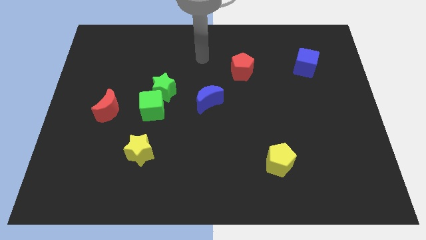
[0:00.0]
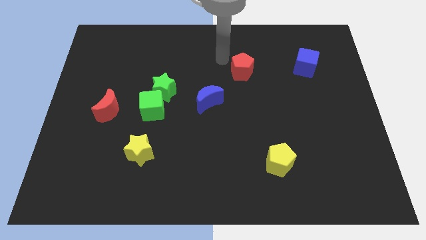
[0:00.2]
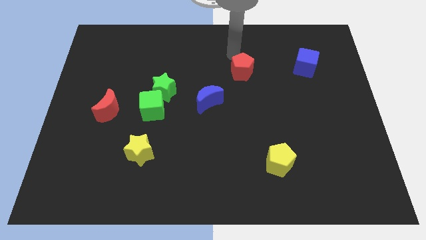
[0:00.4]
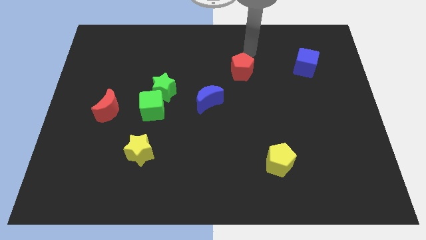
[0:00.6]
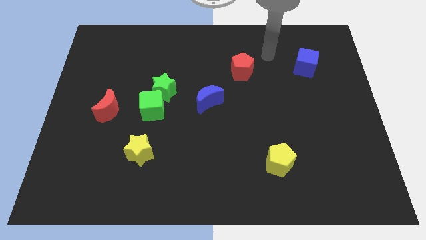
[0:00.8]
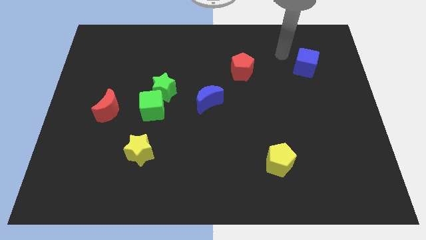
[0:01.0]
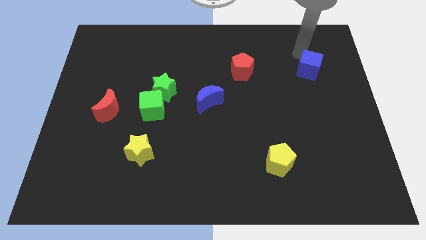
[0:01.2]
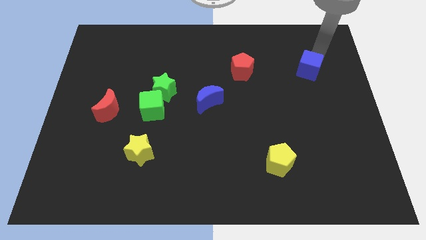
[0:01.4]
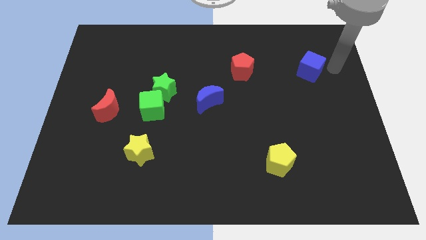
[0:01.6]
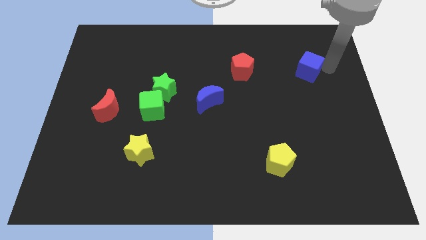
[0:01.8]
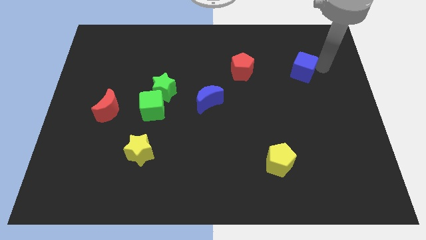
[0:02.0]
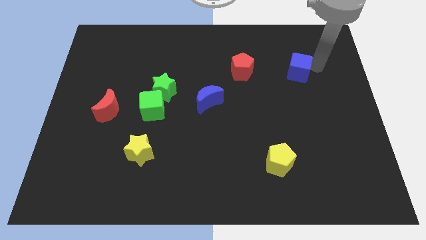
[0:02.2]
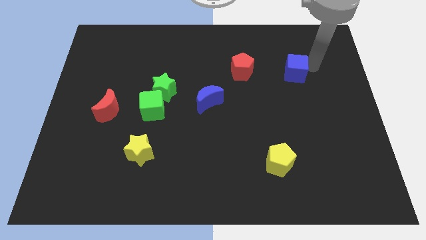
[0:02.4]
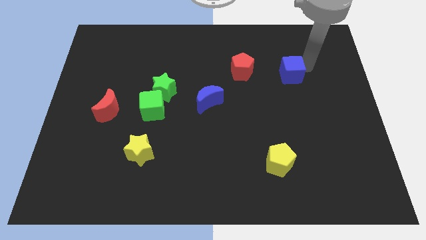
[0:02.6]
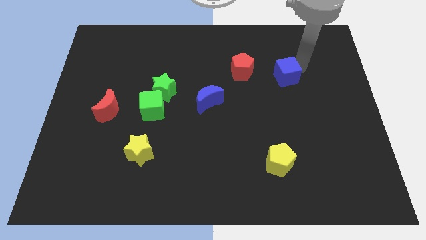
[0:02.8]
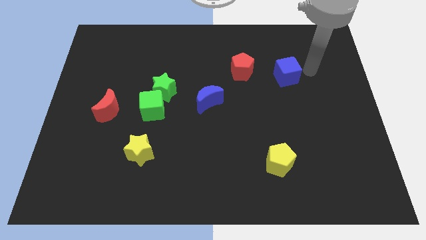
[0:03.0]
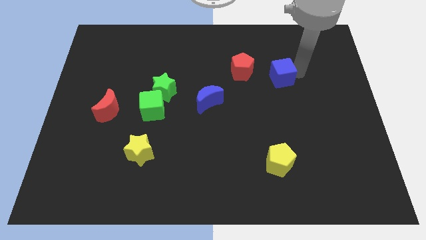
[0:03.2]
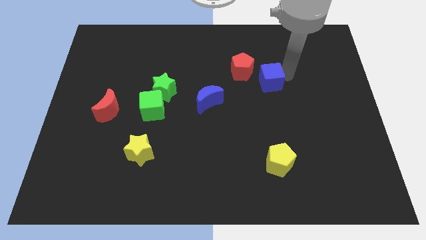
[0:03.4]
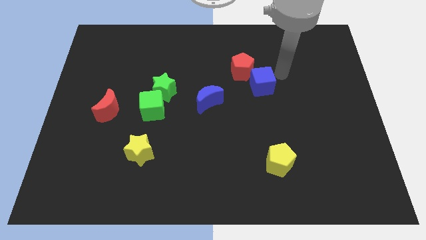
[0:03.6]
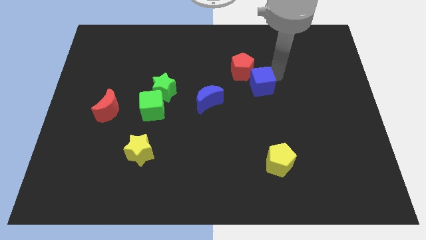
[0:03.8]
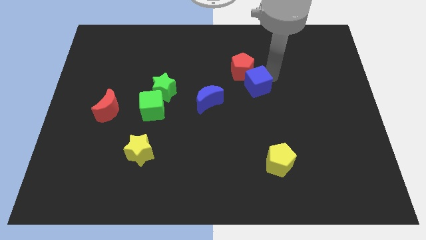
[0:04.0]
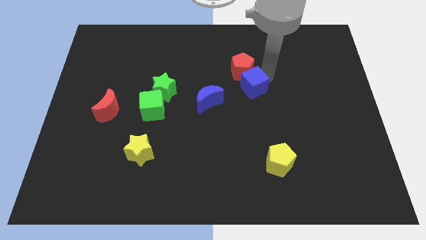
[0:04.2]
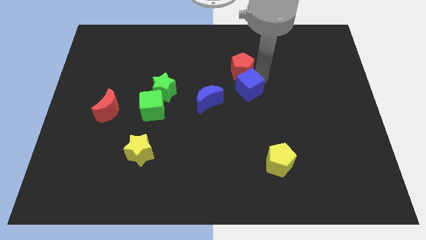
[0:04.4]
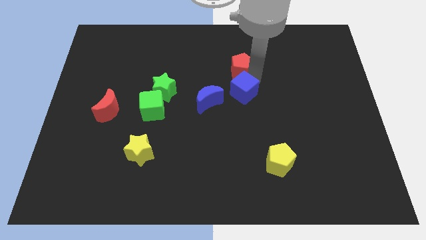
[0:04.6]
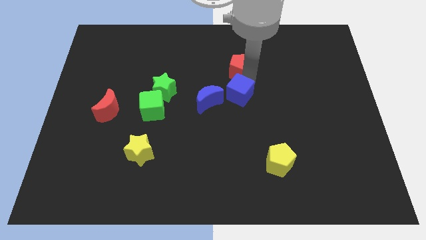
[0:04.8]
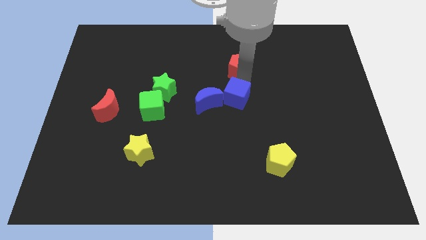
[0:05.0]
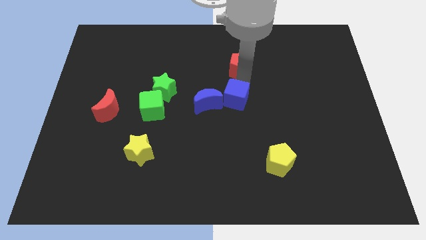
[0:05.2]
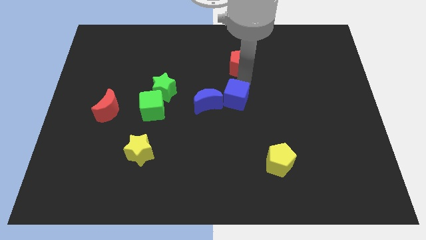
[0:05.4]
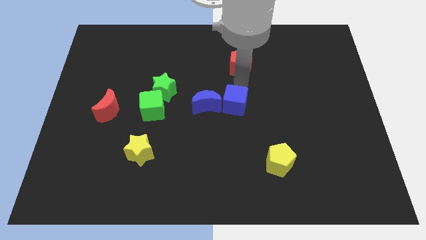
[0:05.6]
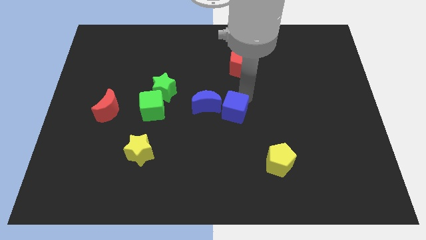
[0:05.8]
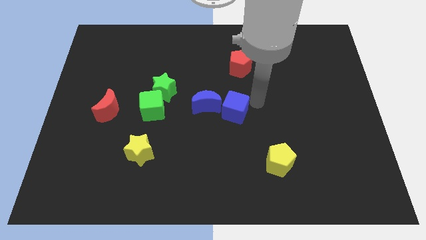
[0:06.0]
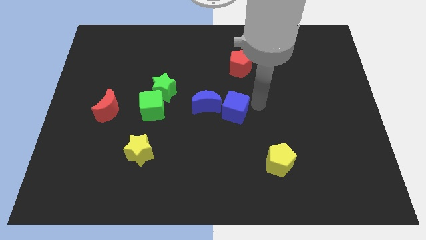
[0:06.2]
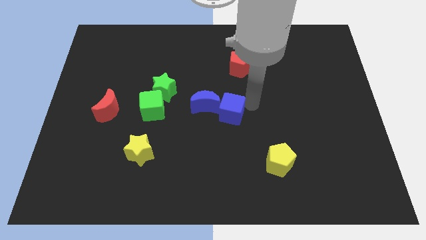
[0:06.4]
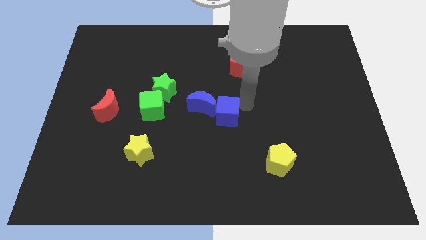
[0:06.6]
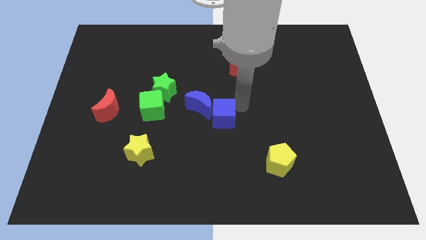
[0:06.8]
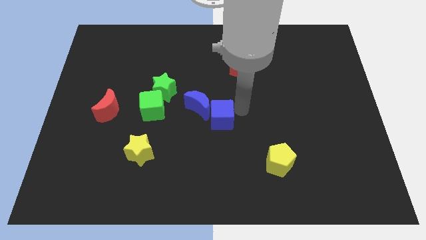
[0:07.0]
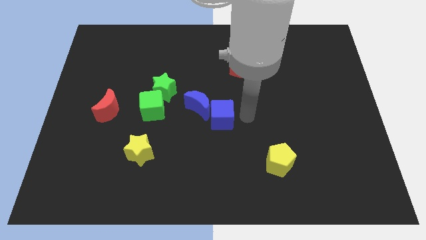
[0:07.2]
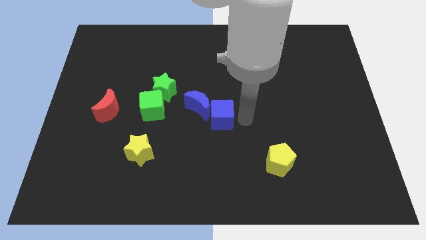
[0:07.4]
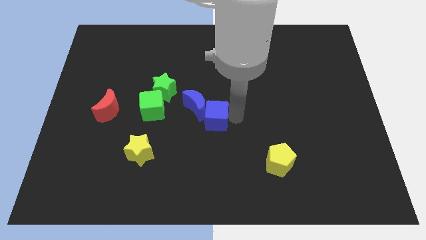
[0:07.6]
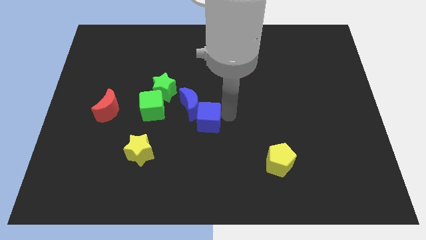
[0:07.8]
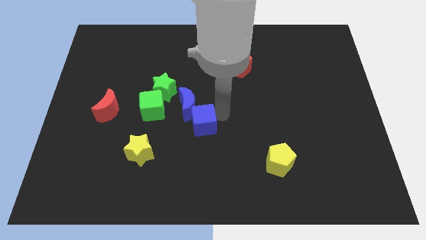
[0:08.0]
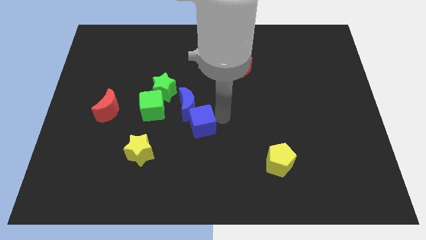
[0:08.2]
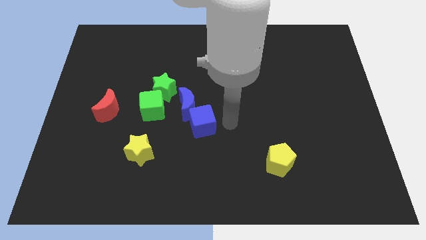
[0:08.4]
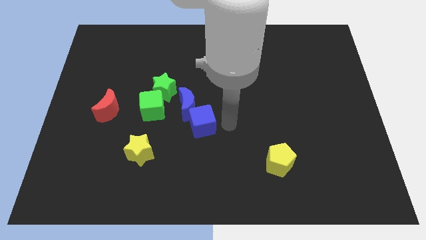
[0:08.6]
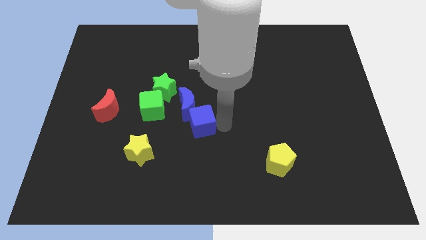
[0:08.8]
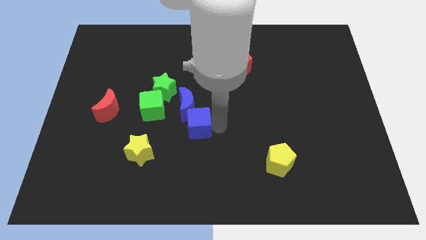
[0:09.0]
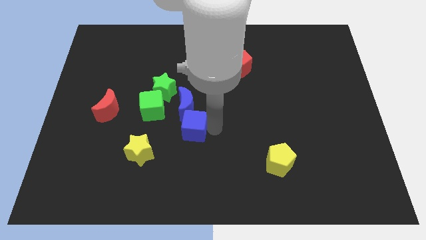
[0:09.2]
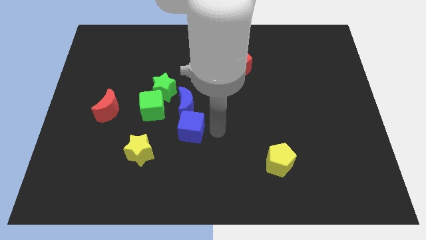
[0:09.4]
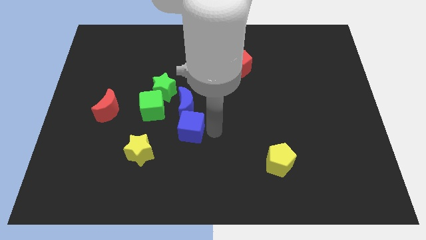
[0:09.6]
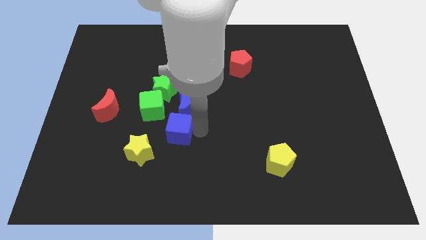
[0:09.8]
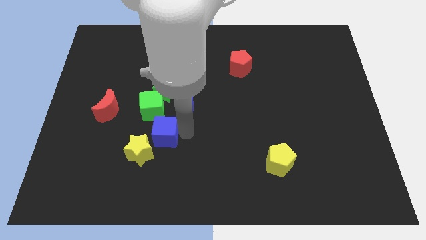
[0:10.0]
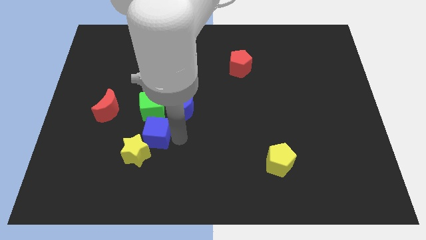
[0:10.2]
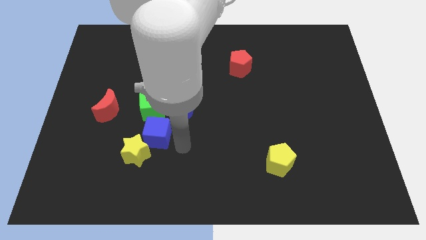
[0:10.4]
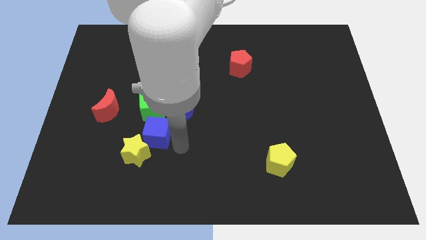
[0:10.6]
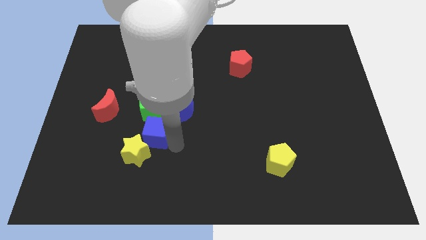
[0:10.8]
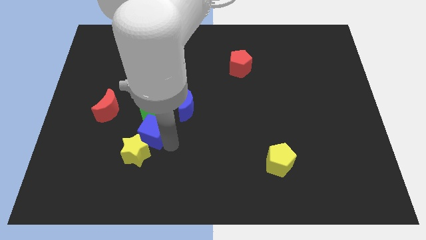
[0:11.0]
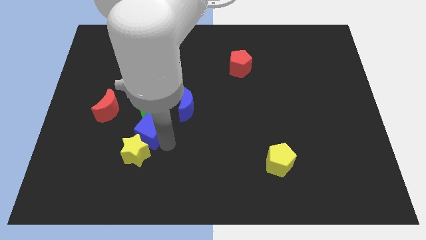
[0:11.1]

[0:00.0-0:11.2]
put the blue cube to the bottom right side of the red moon

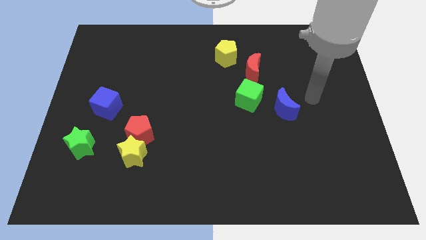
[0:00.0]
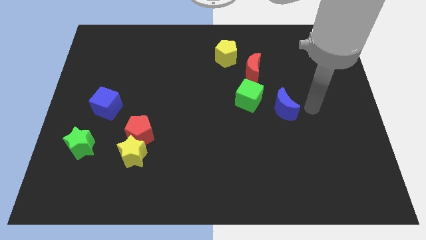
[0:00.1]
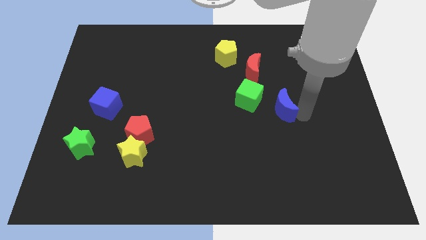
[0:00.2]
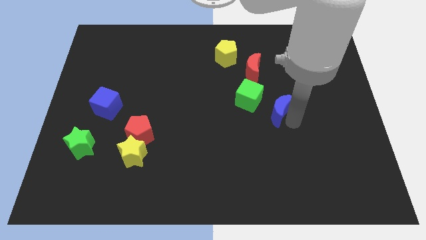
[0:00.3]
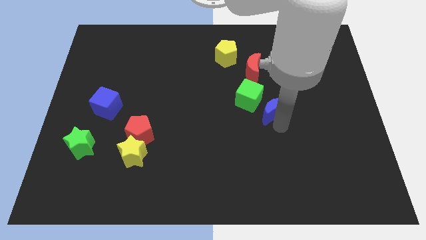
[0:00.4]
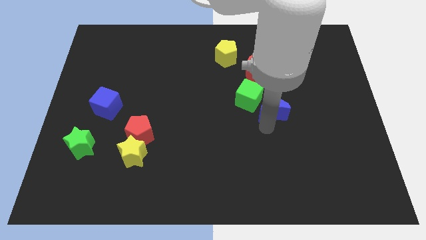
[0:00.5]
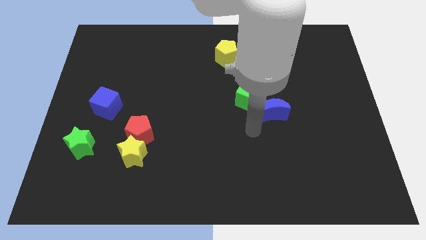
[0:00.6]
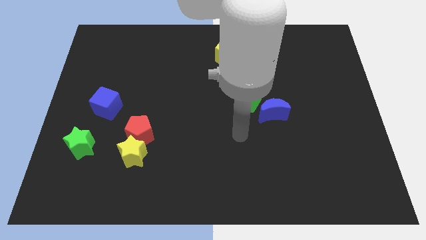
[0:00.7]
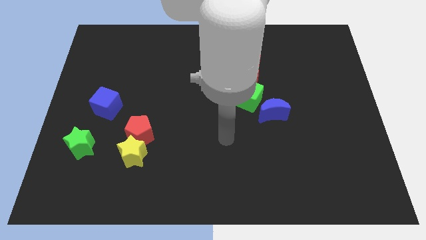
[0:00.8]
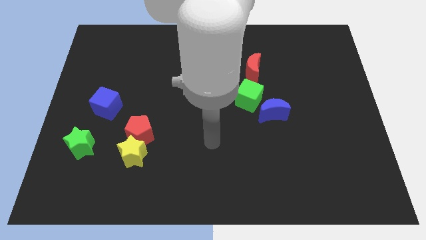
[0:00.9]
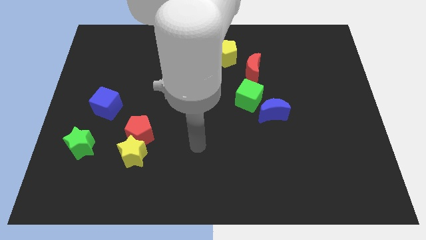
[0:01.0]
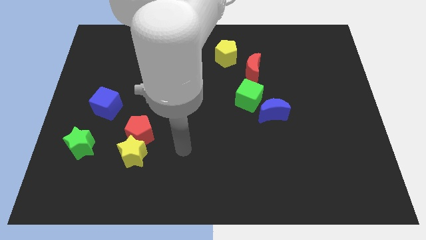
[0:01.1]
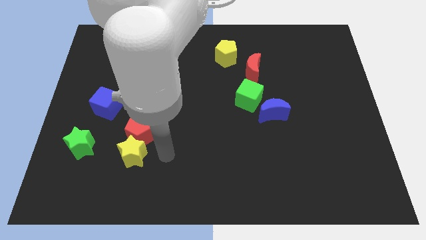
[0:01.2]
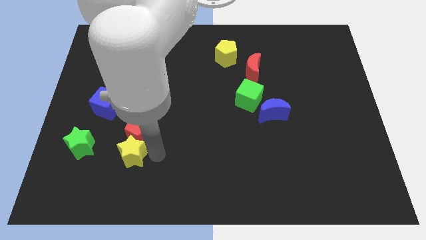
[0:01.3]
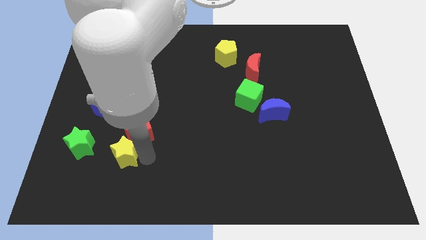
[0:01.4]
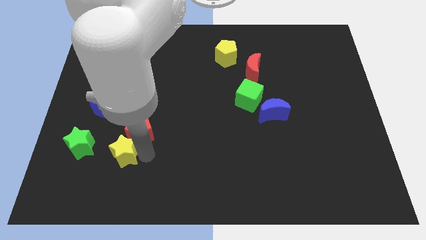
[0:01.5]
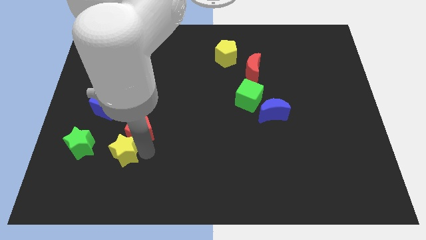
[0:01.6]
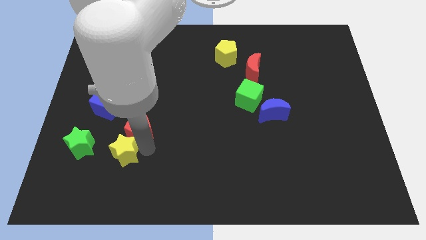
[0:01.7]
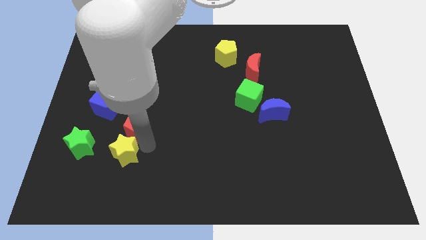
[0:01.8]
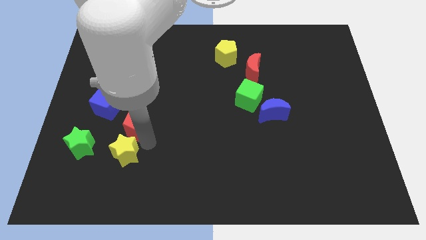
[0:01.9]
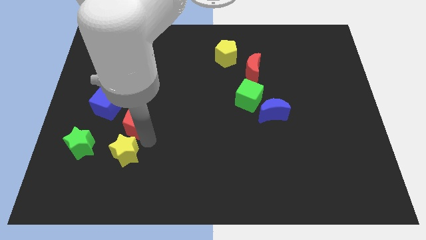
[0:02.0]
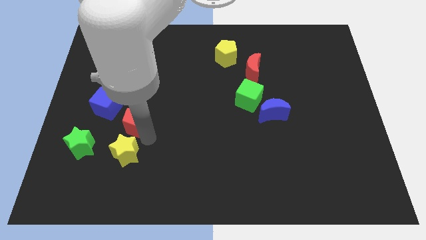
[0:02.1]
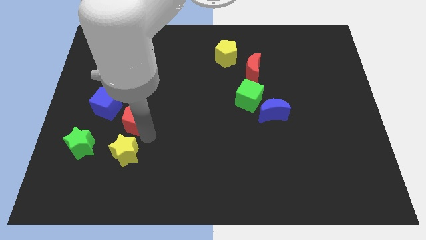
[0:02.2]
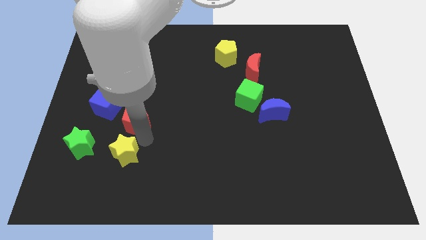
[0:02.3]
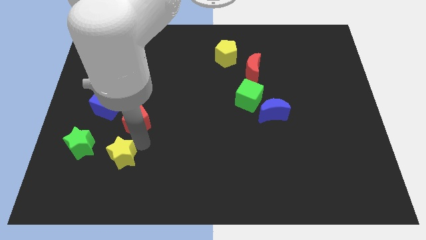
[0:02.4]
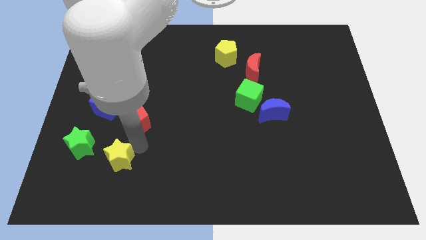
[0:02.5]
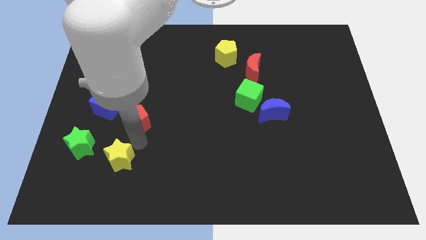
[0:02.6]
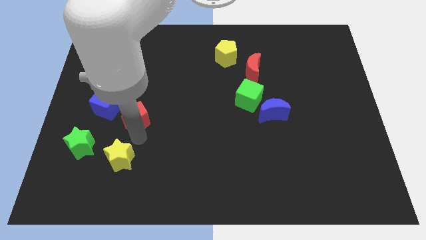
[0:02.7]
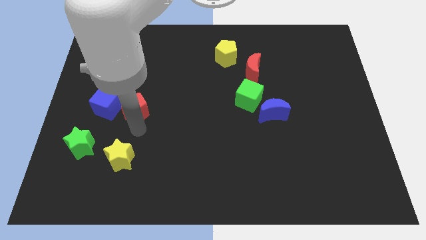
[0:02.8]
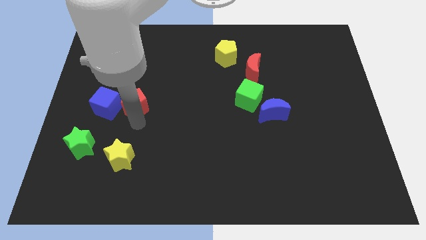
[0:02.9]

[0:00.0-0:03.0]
push the red pentagon diagonally up and to the right of the blue cube
